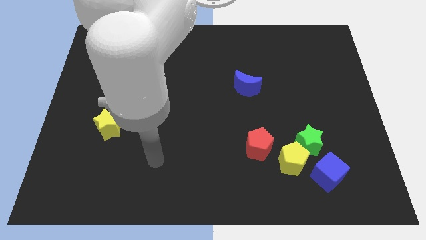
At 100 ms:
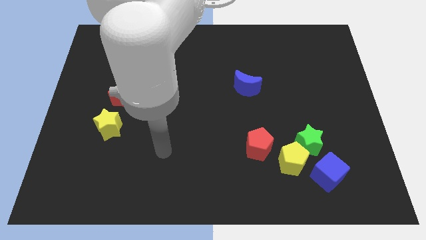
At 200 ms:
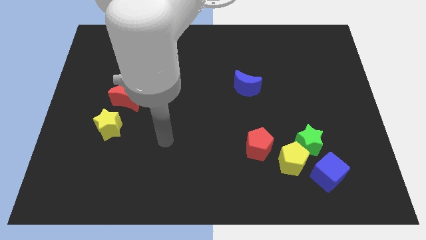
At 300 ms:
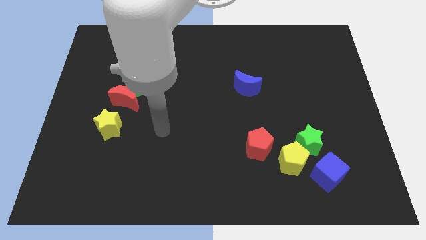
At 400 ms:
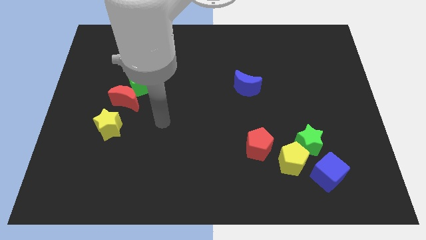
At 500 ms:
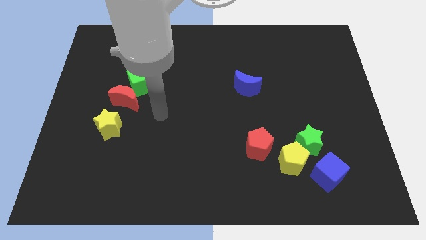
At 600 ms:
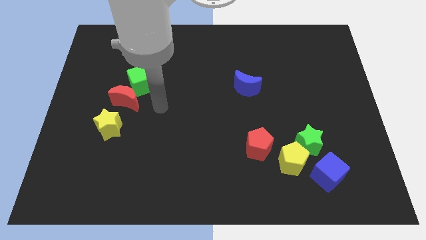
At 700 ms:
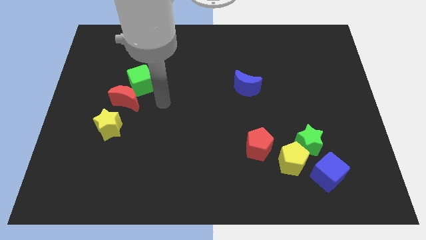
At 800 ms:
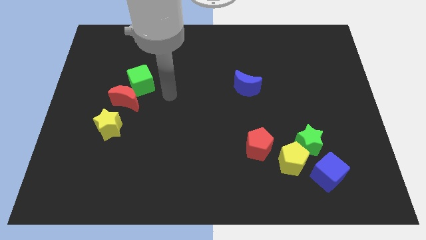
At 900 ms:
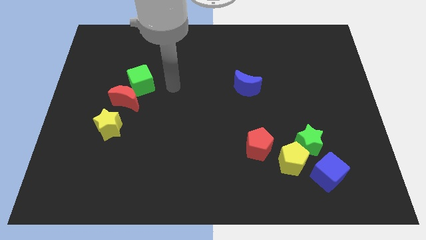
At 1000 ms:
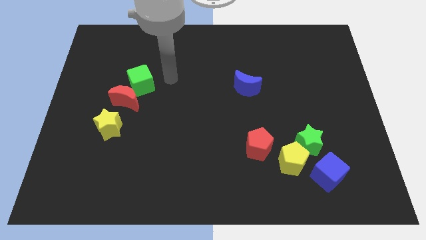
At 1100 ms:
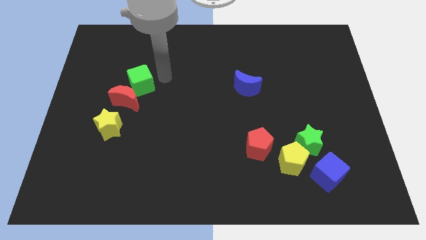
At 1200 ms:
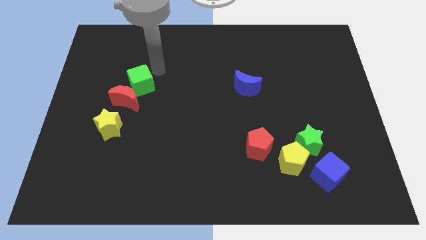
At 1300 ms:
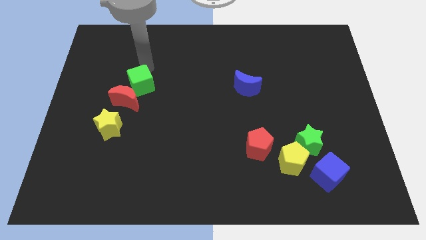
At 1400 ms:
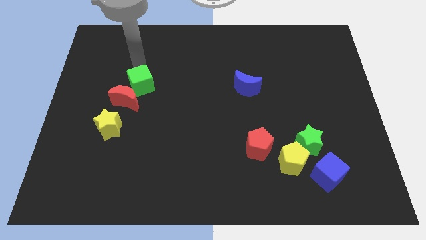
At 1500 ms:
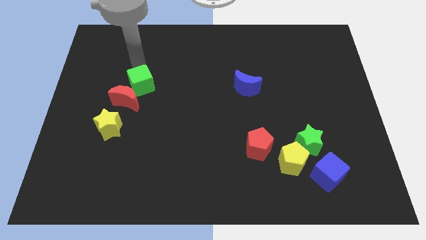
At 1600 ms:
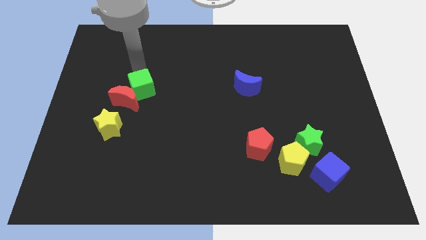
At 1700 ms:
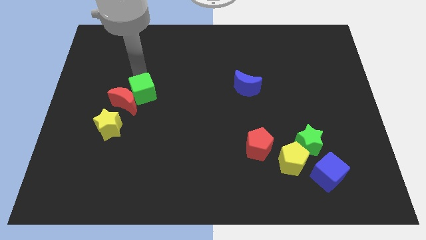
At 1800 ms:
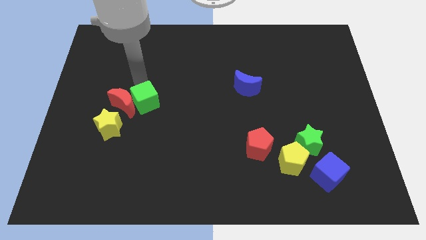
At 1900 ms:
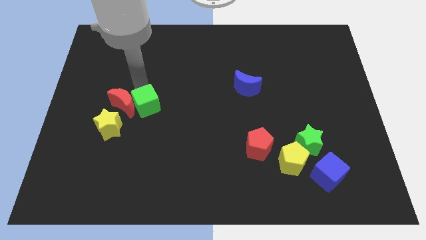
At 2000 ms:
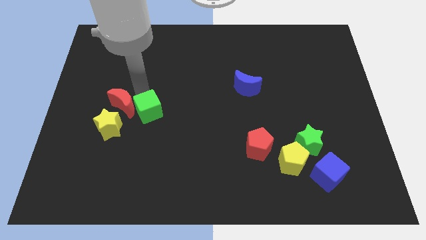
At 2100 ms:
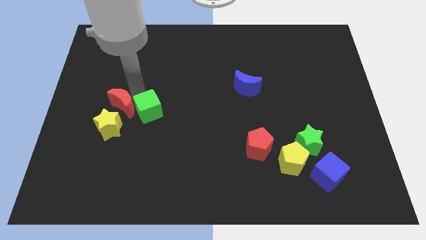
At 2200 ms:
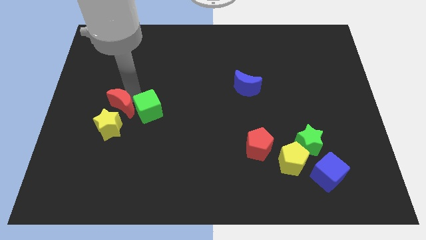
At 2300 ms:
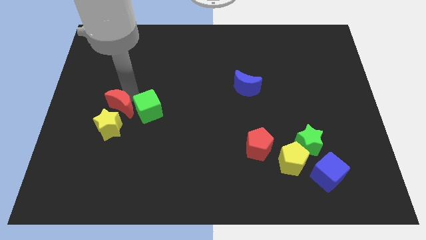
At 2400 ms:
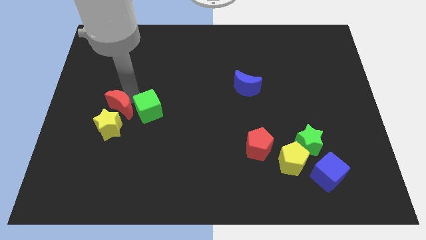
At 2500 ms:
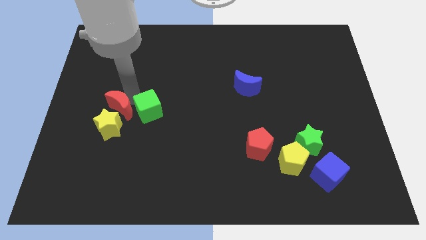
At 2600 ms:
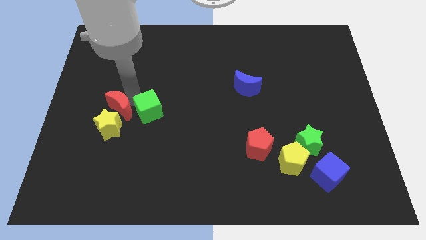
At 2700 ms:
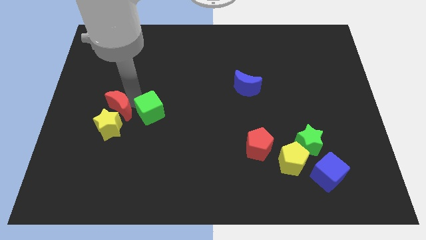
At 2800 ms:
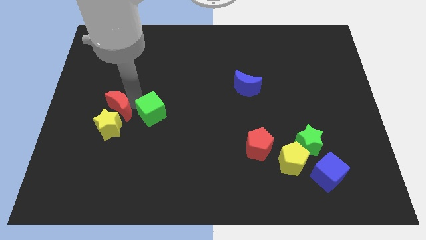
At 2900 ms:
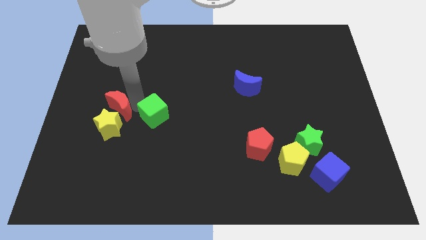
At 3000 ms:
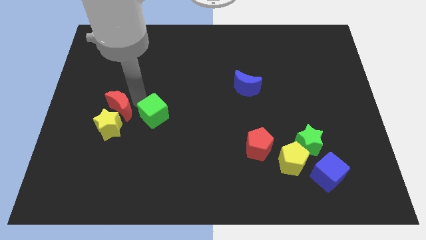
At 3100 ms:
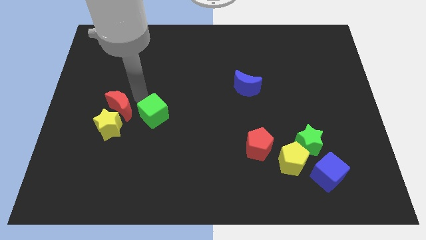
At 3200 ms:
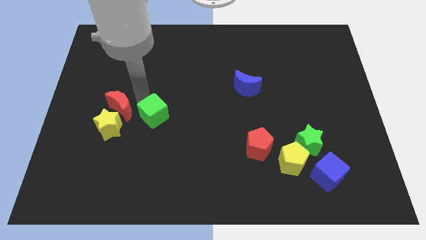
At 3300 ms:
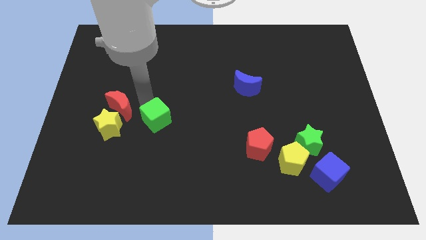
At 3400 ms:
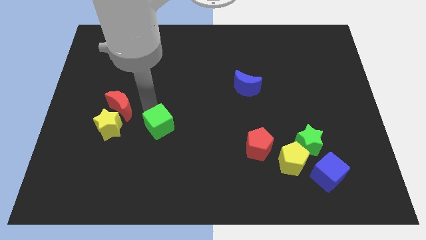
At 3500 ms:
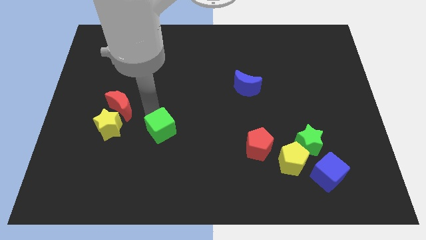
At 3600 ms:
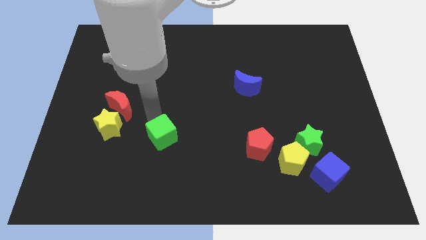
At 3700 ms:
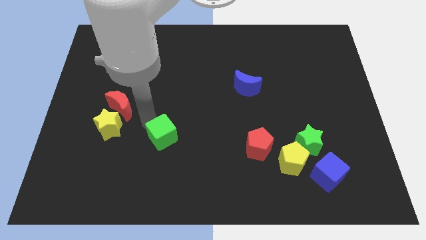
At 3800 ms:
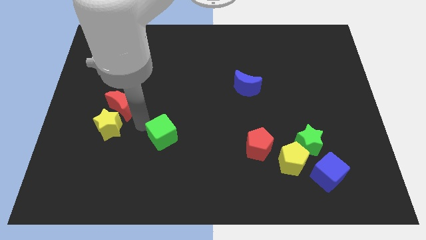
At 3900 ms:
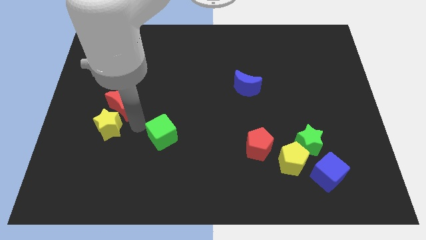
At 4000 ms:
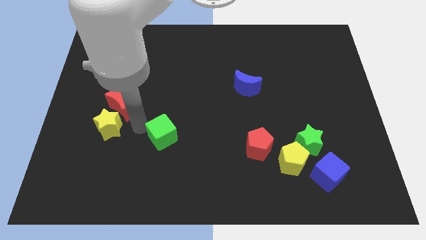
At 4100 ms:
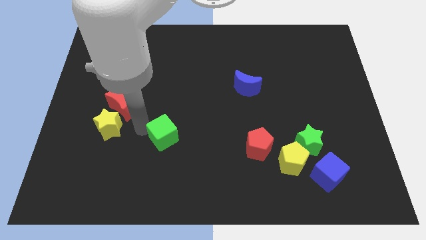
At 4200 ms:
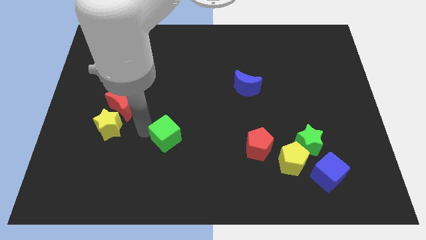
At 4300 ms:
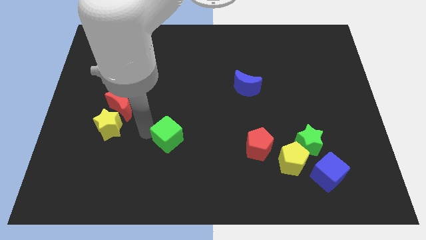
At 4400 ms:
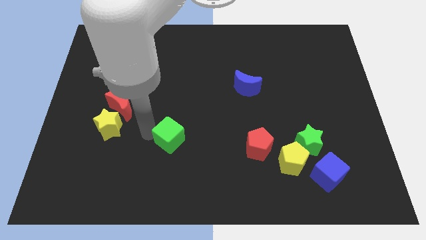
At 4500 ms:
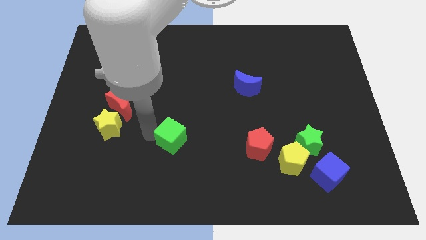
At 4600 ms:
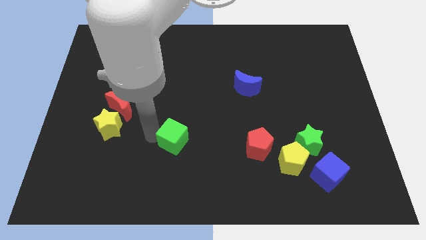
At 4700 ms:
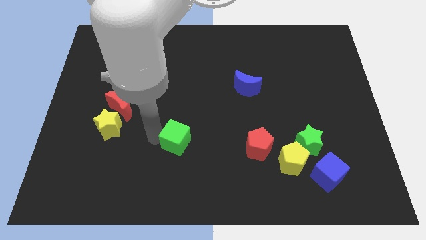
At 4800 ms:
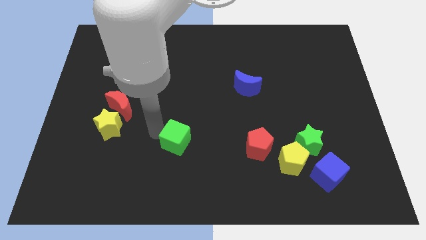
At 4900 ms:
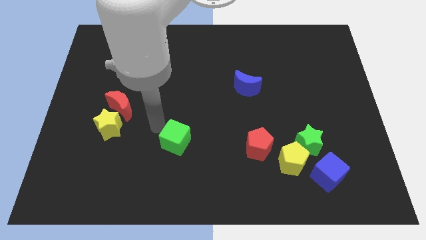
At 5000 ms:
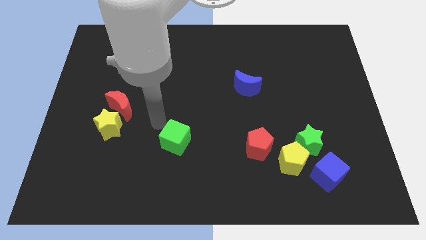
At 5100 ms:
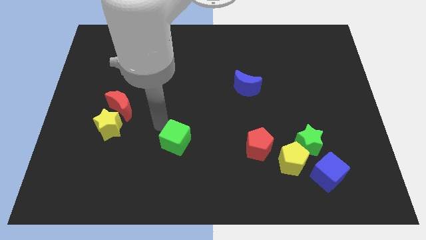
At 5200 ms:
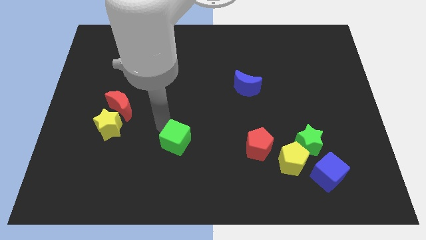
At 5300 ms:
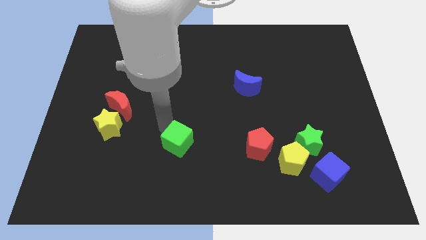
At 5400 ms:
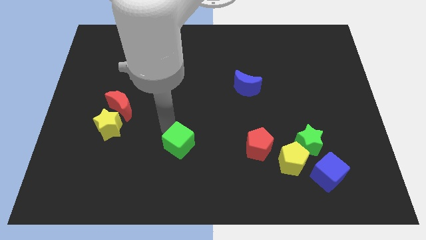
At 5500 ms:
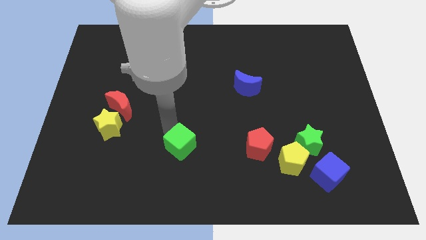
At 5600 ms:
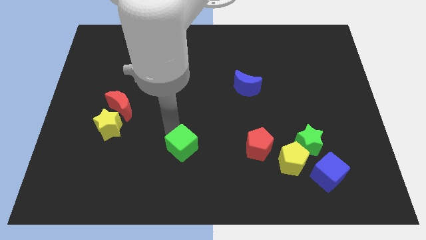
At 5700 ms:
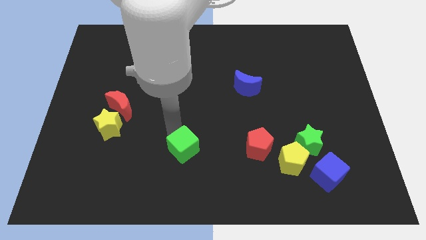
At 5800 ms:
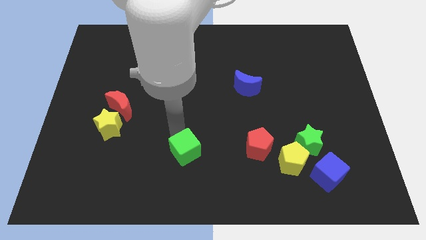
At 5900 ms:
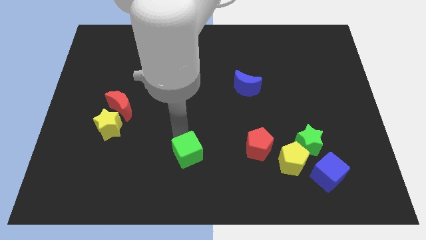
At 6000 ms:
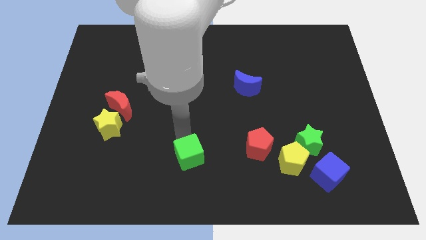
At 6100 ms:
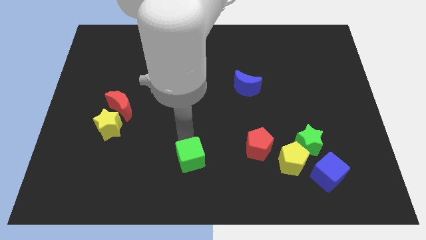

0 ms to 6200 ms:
push the green cube to the bottom side
